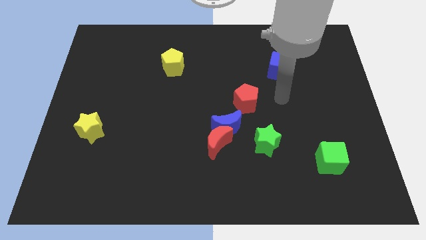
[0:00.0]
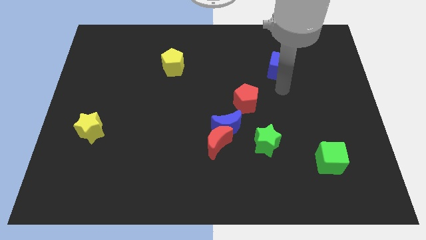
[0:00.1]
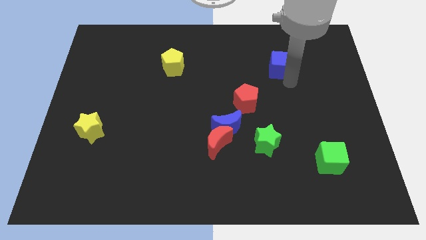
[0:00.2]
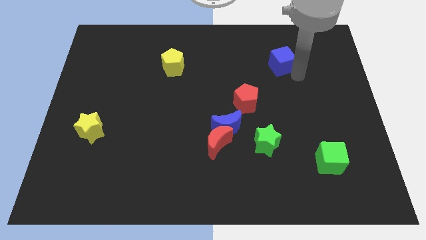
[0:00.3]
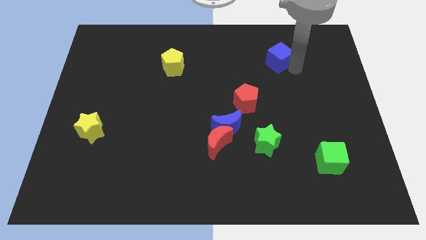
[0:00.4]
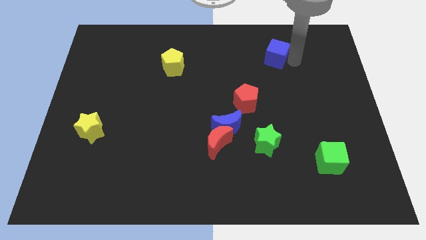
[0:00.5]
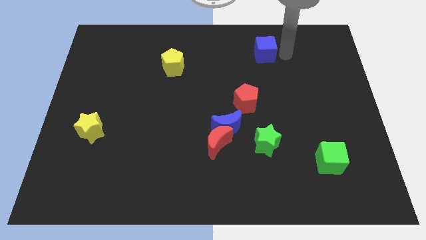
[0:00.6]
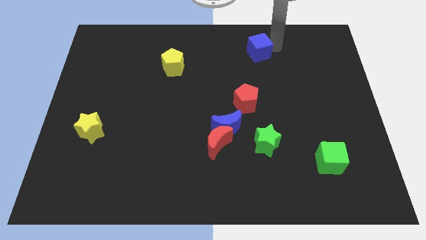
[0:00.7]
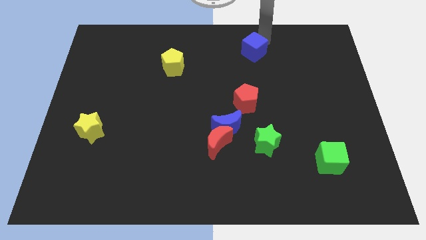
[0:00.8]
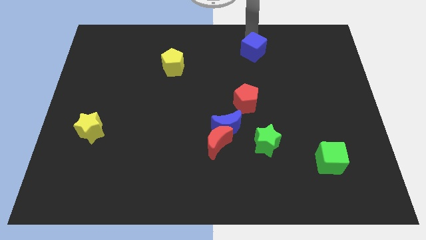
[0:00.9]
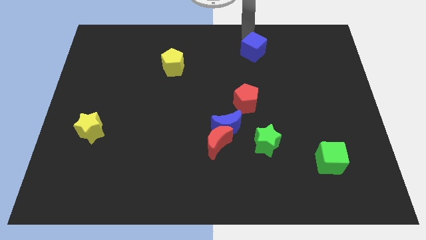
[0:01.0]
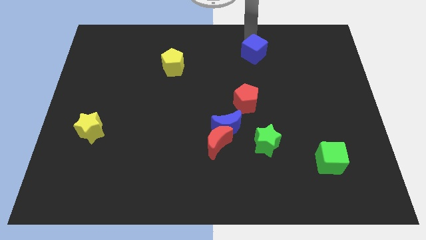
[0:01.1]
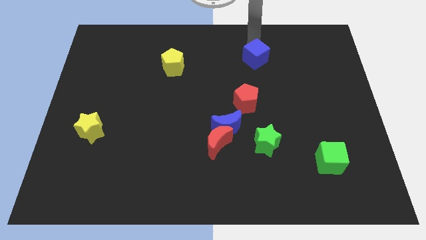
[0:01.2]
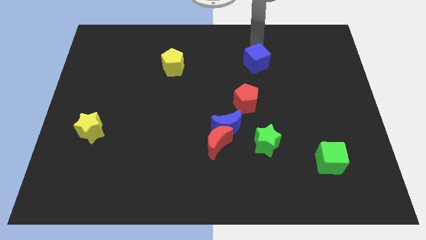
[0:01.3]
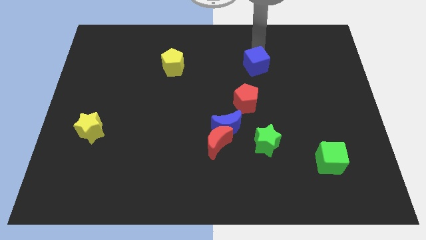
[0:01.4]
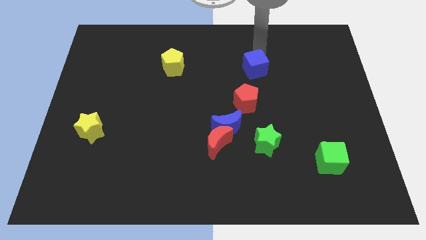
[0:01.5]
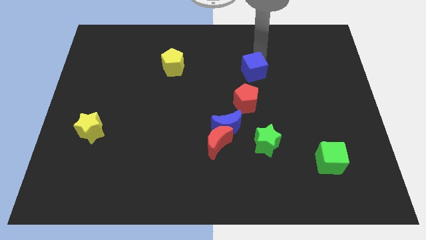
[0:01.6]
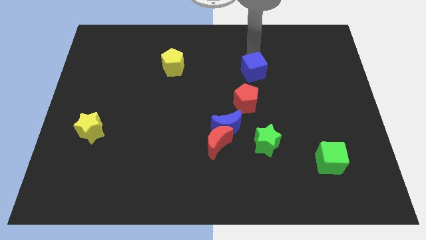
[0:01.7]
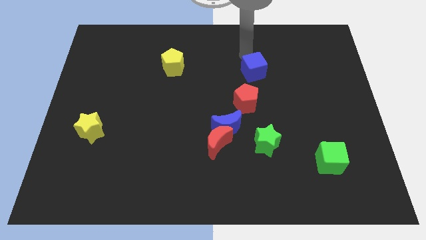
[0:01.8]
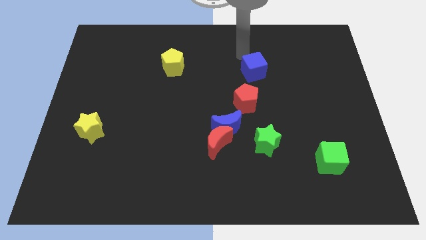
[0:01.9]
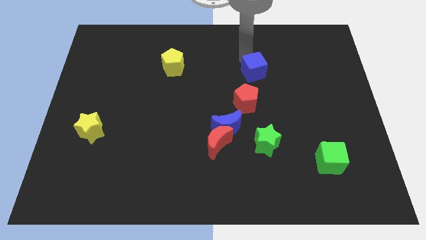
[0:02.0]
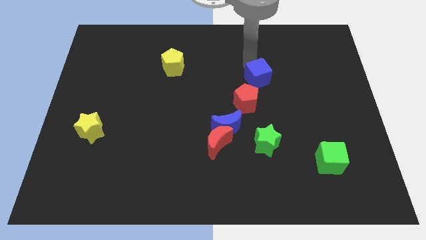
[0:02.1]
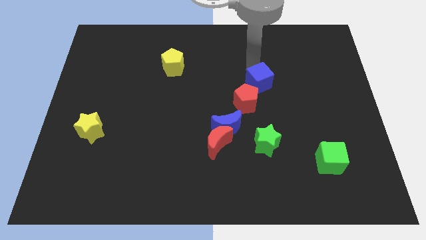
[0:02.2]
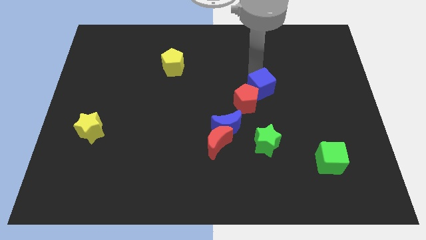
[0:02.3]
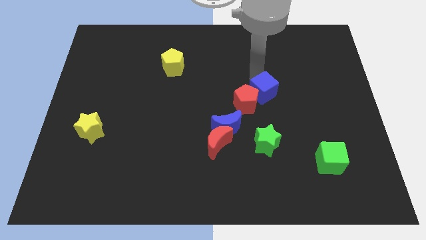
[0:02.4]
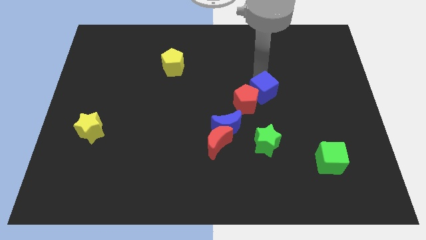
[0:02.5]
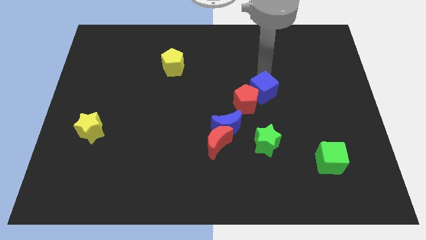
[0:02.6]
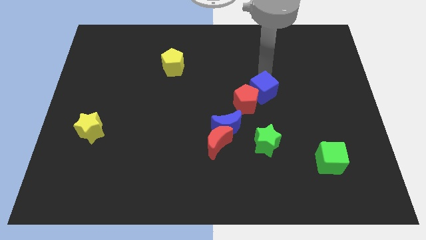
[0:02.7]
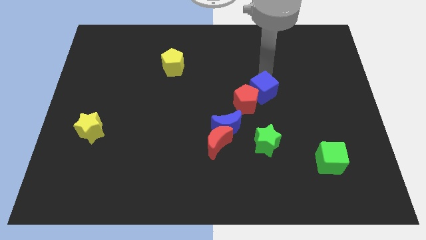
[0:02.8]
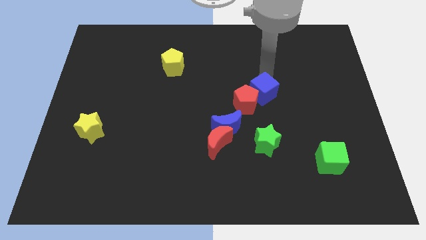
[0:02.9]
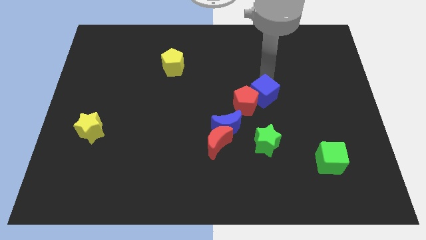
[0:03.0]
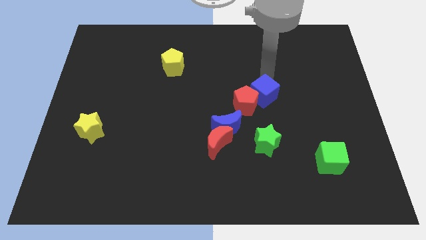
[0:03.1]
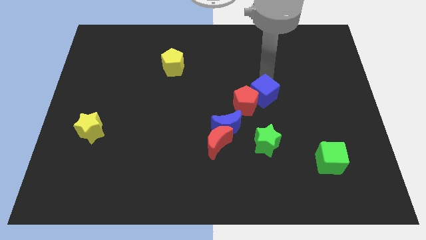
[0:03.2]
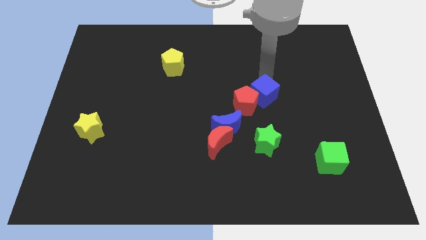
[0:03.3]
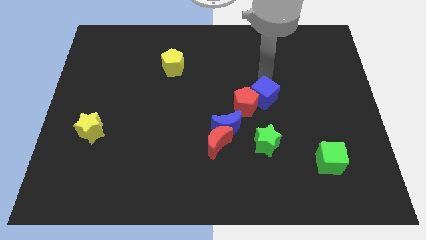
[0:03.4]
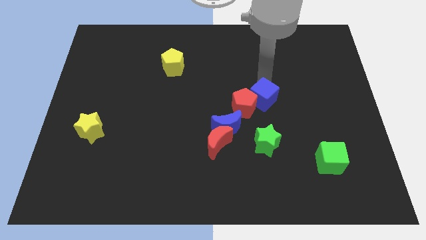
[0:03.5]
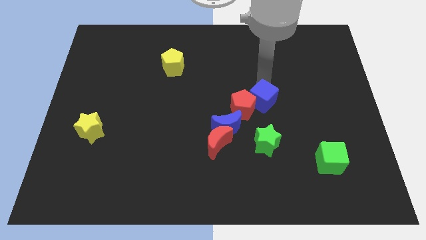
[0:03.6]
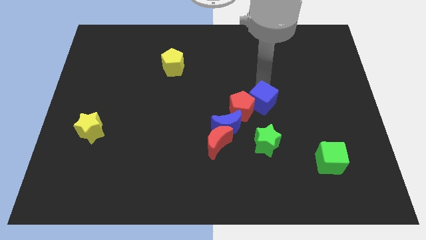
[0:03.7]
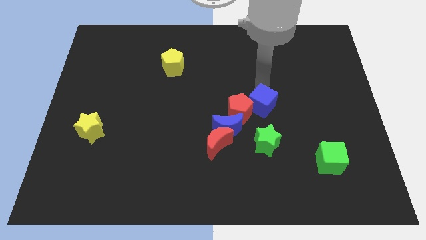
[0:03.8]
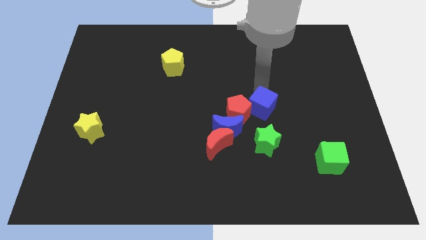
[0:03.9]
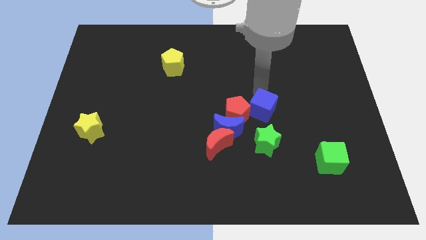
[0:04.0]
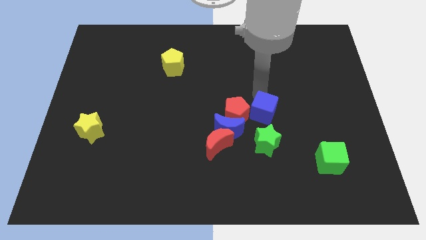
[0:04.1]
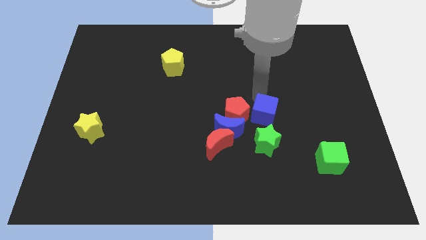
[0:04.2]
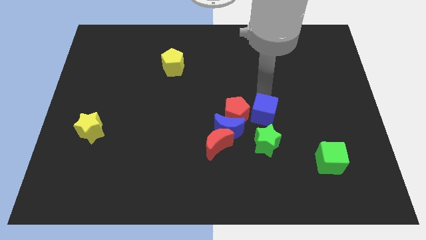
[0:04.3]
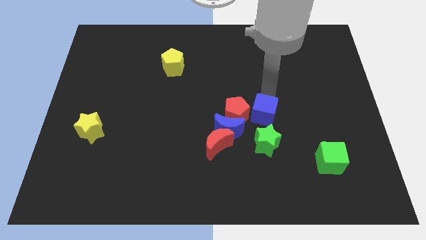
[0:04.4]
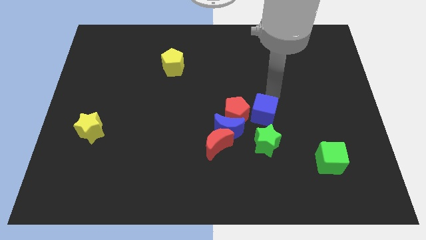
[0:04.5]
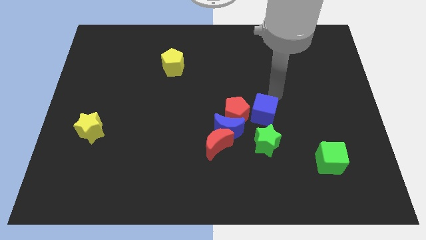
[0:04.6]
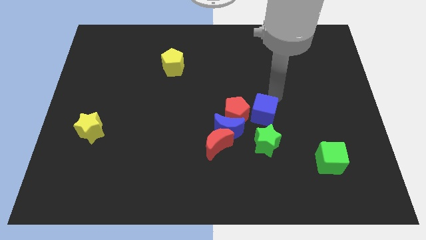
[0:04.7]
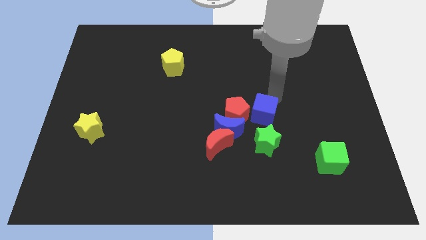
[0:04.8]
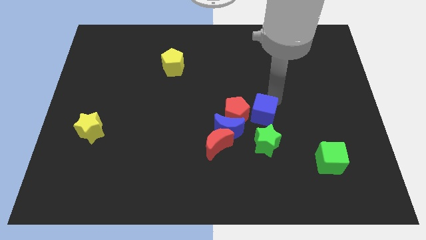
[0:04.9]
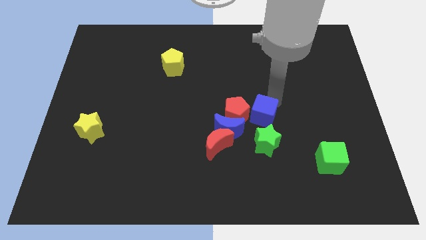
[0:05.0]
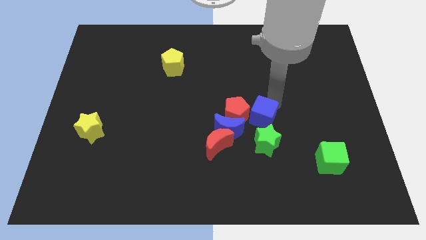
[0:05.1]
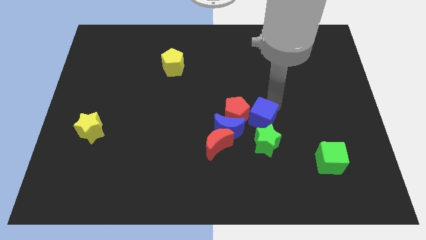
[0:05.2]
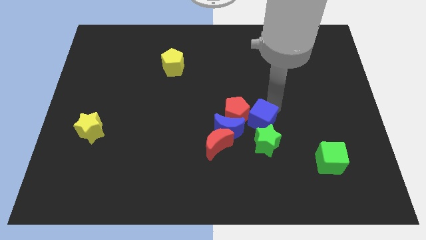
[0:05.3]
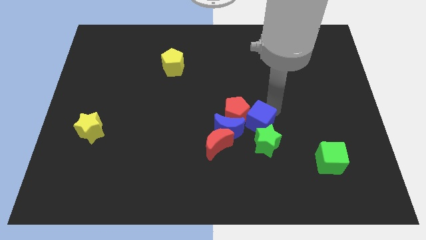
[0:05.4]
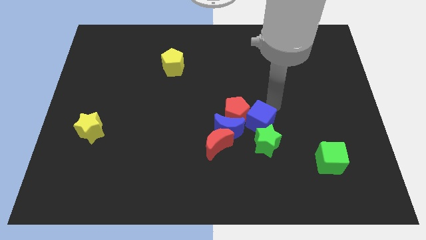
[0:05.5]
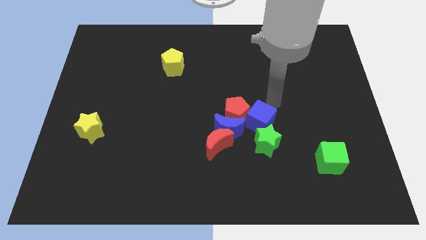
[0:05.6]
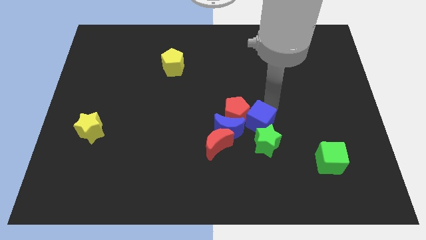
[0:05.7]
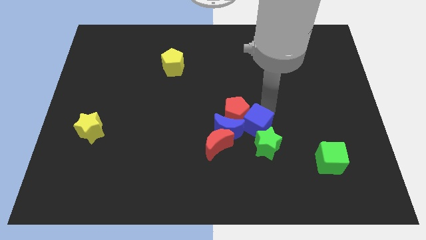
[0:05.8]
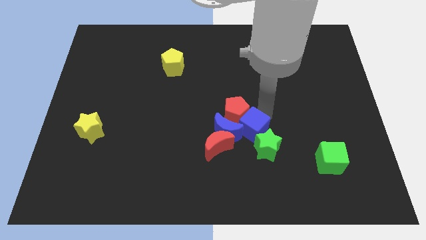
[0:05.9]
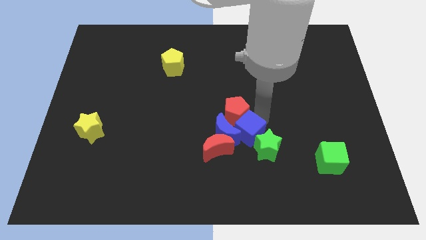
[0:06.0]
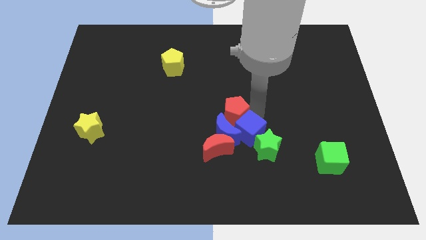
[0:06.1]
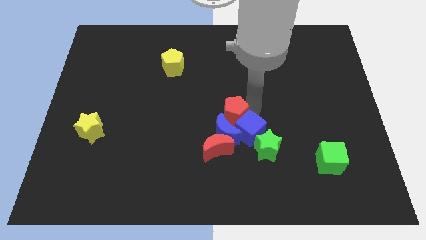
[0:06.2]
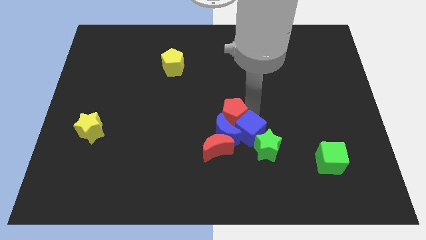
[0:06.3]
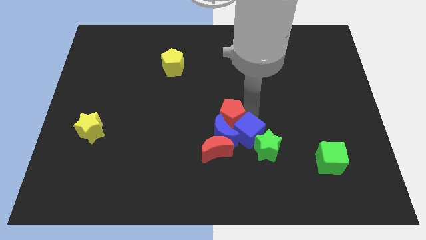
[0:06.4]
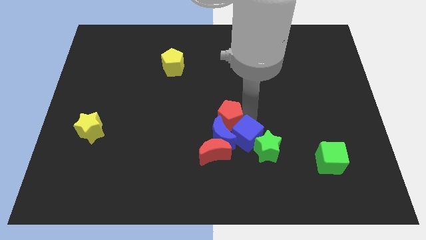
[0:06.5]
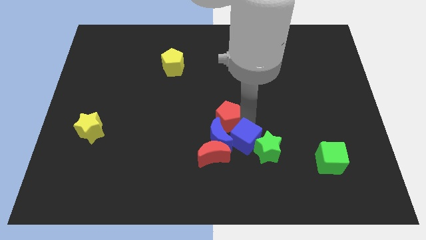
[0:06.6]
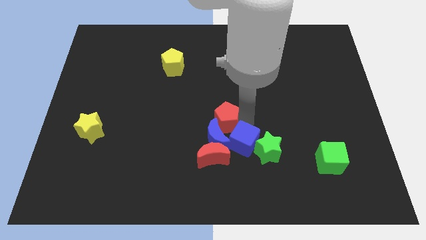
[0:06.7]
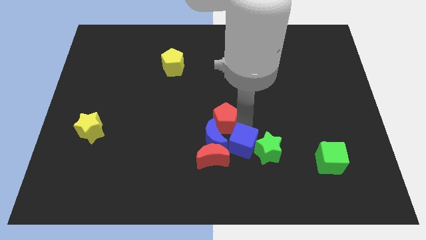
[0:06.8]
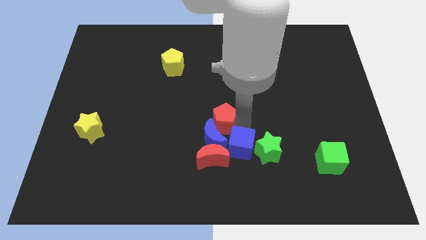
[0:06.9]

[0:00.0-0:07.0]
push the blue cube to the bottom left of the green star

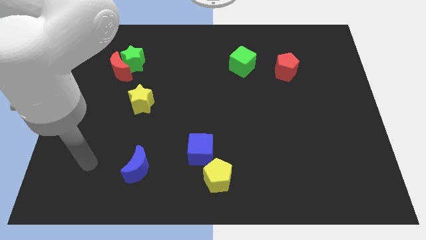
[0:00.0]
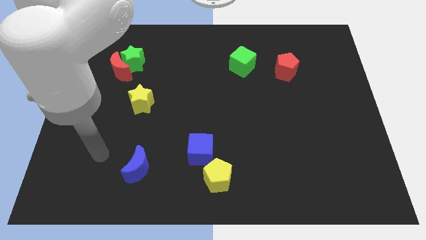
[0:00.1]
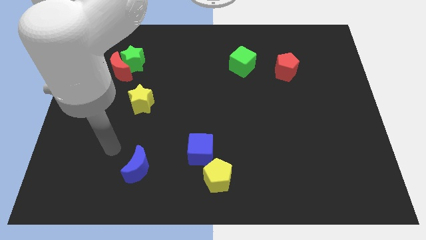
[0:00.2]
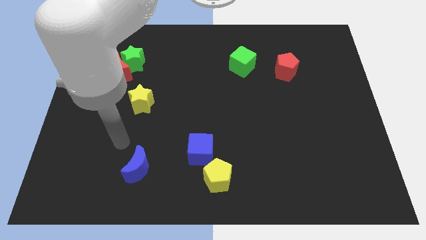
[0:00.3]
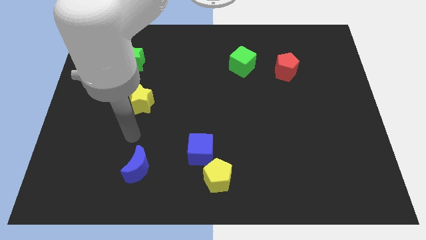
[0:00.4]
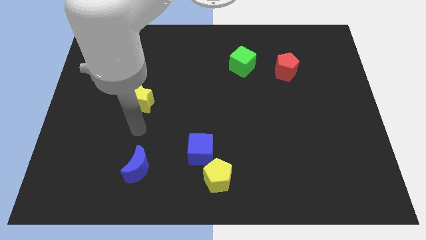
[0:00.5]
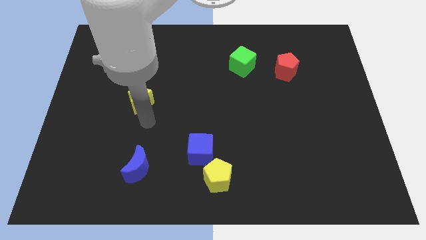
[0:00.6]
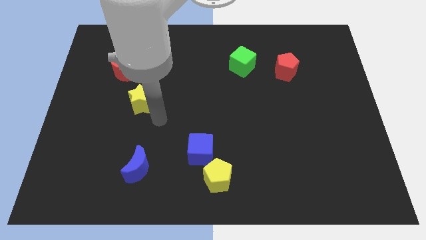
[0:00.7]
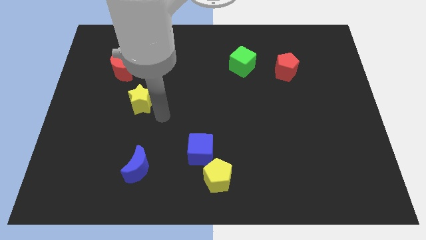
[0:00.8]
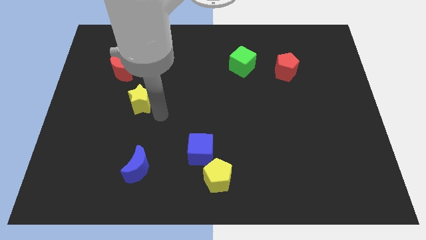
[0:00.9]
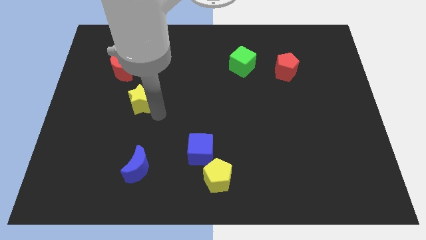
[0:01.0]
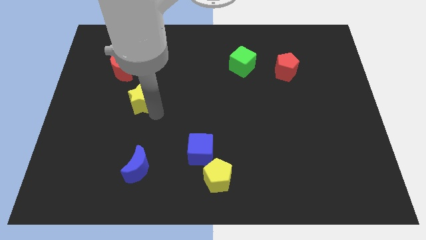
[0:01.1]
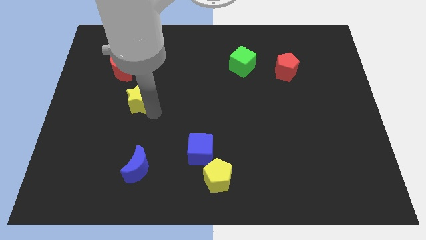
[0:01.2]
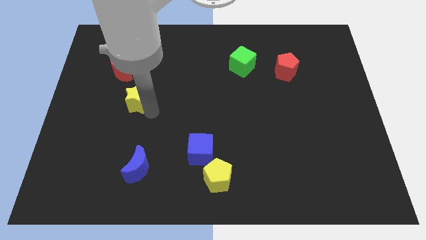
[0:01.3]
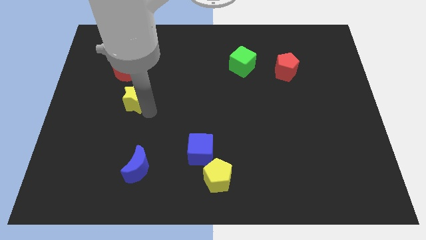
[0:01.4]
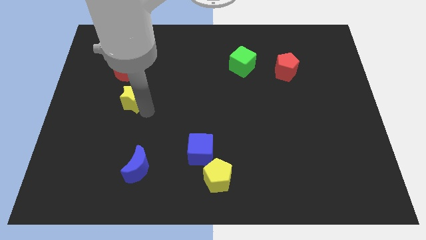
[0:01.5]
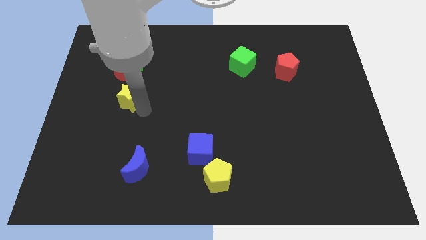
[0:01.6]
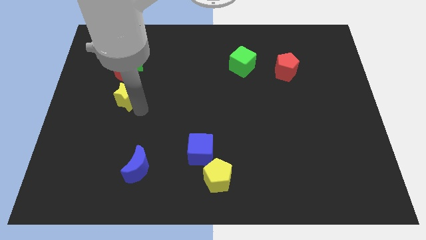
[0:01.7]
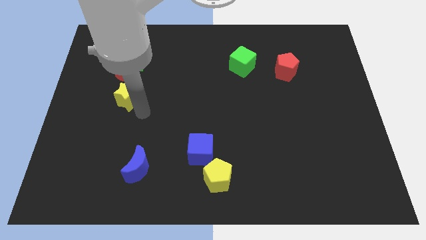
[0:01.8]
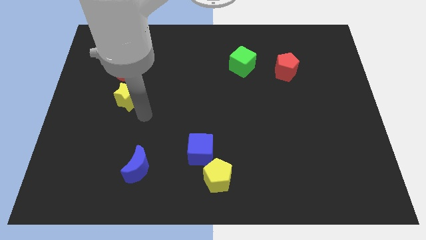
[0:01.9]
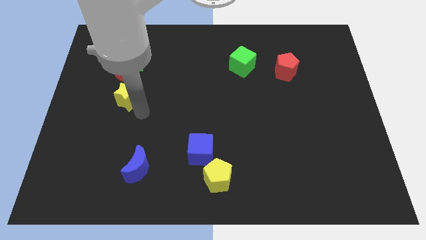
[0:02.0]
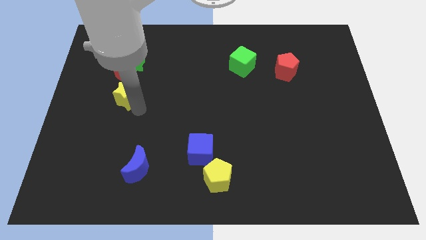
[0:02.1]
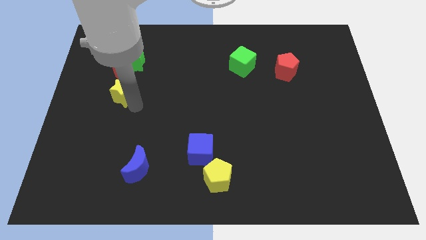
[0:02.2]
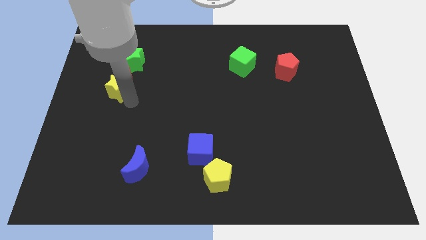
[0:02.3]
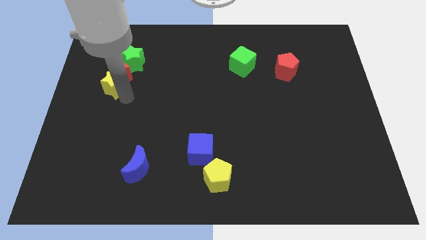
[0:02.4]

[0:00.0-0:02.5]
push the yellow star diagonally down and to the left of the green star
